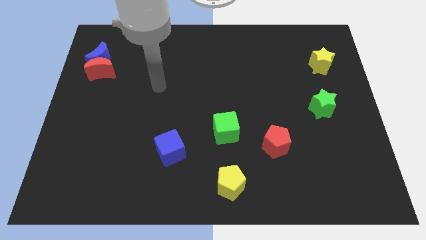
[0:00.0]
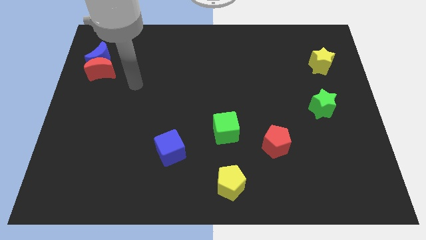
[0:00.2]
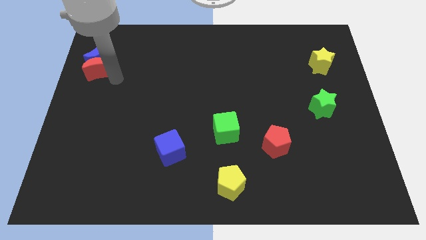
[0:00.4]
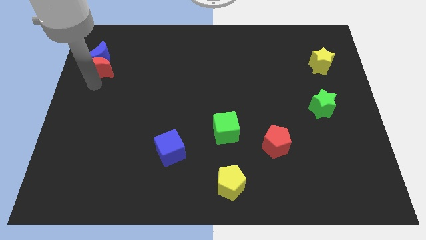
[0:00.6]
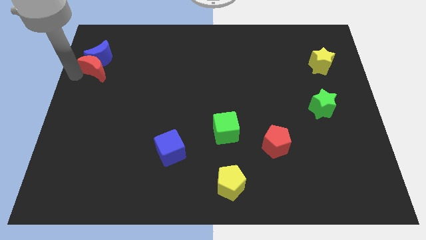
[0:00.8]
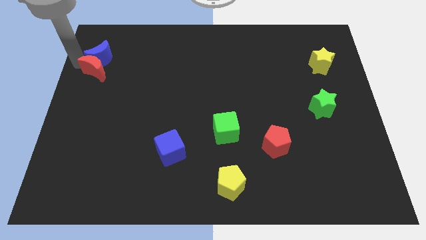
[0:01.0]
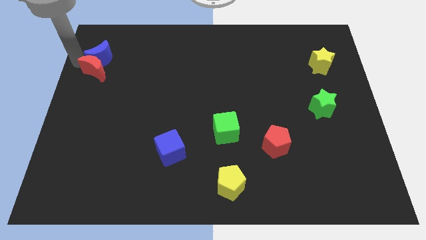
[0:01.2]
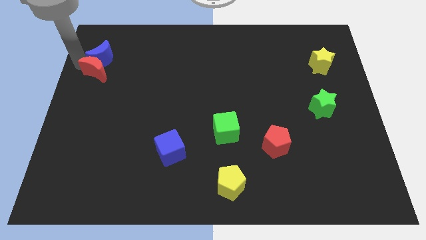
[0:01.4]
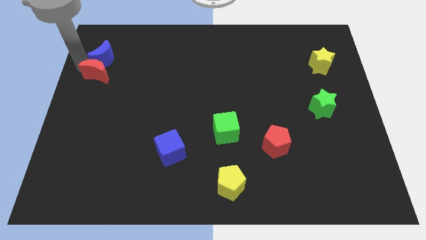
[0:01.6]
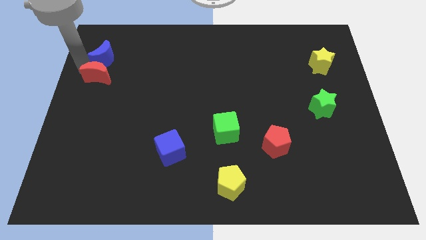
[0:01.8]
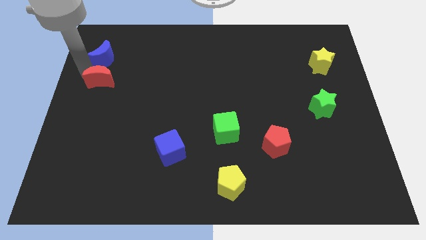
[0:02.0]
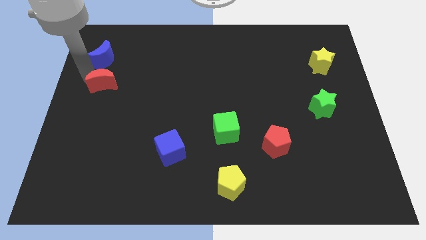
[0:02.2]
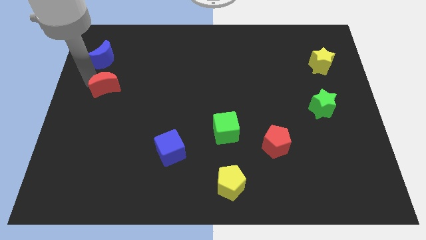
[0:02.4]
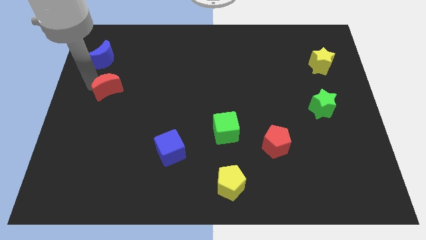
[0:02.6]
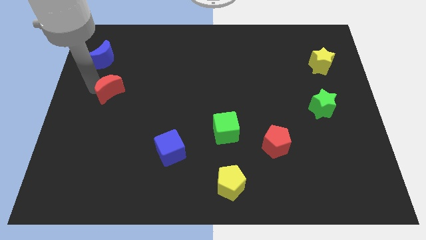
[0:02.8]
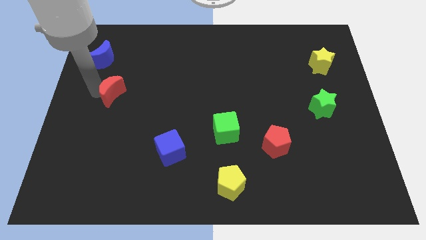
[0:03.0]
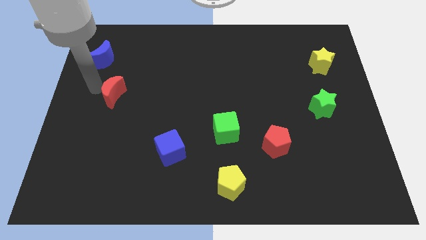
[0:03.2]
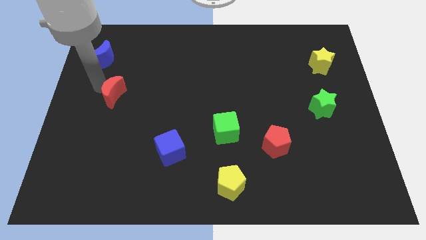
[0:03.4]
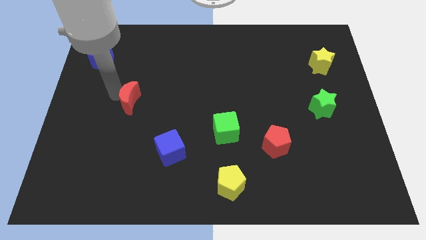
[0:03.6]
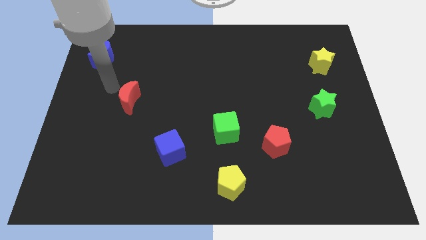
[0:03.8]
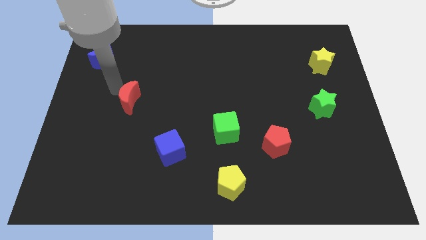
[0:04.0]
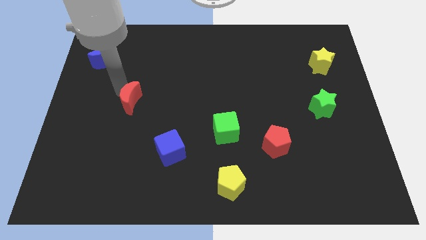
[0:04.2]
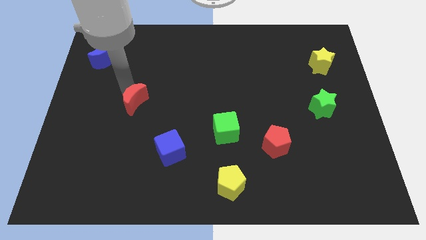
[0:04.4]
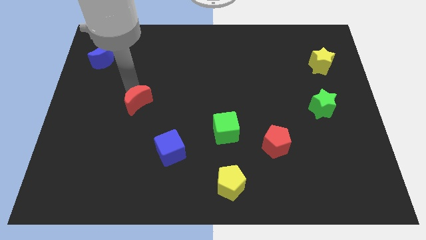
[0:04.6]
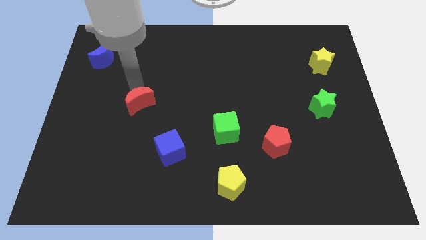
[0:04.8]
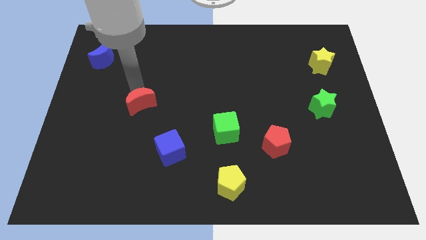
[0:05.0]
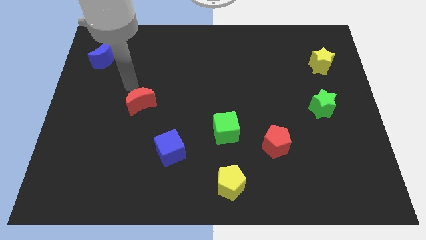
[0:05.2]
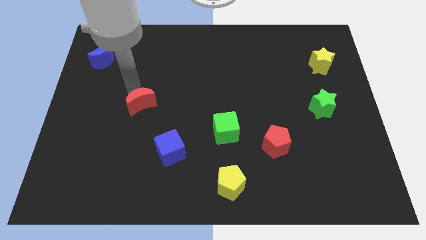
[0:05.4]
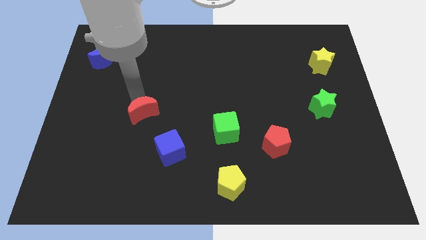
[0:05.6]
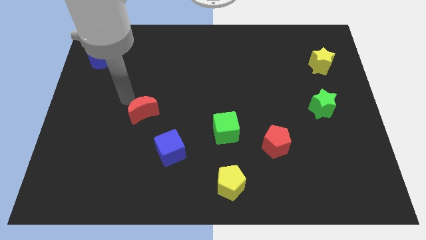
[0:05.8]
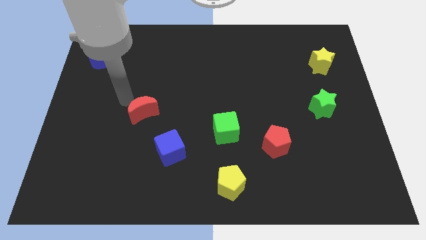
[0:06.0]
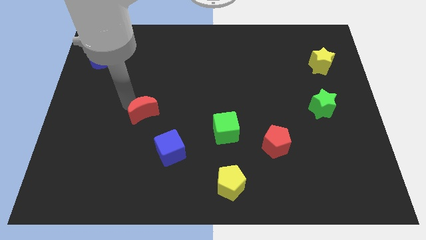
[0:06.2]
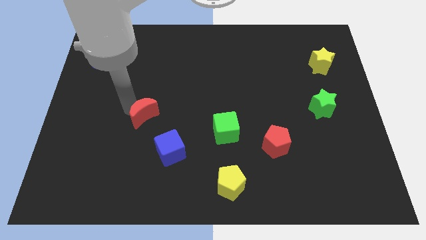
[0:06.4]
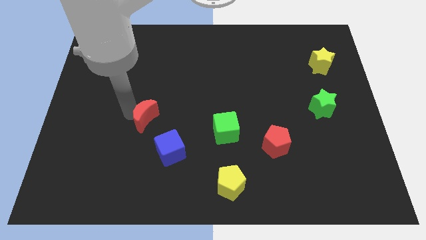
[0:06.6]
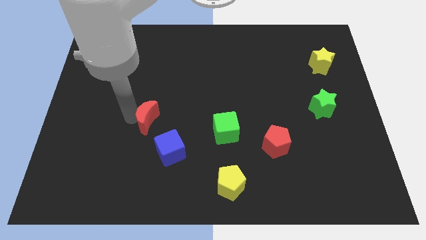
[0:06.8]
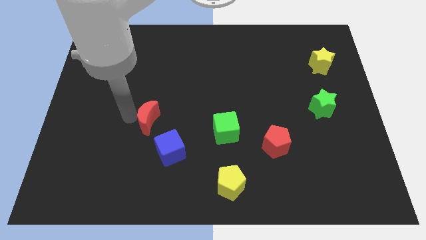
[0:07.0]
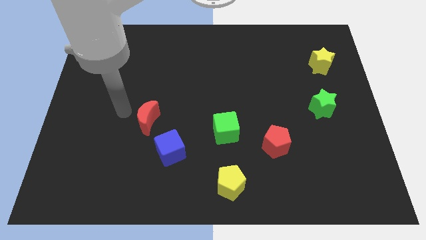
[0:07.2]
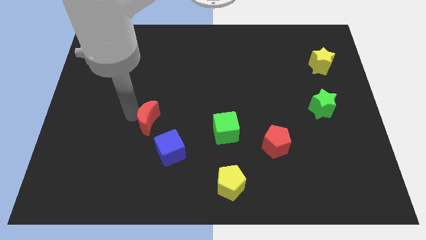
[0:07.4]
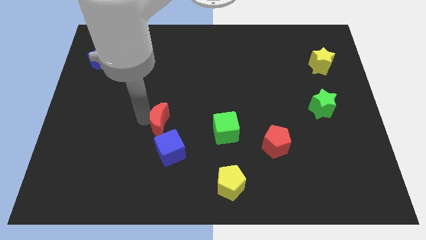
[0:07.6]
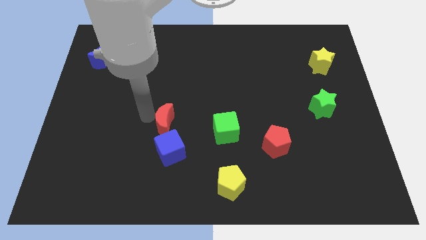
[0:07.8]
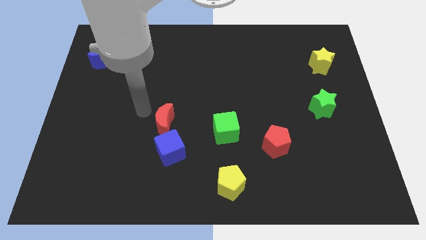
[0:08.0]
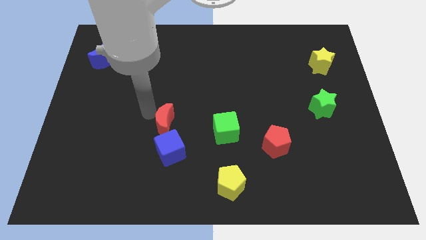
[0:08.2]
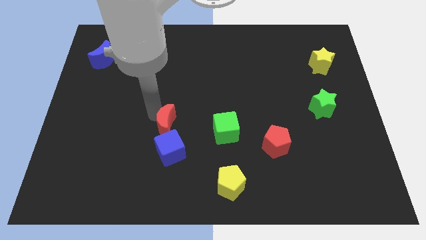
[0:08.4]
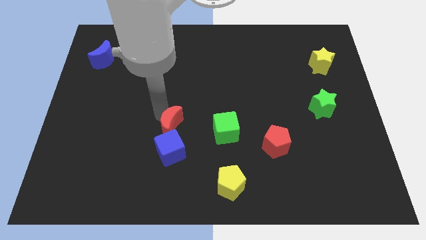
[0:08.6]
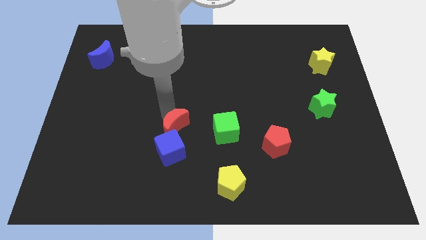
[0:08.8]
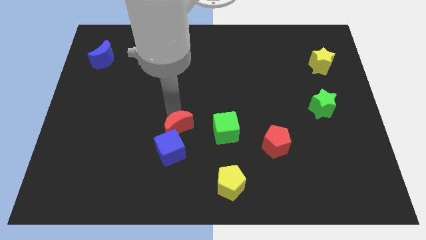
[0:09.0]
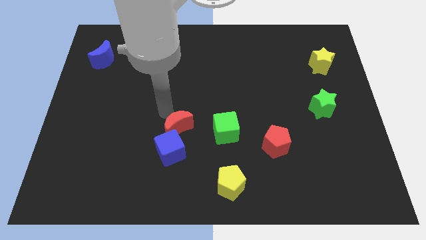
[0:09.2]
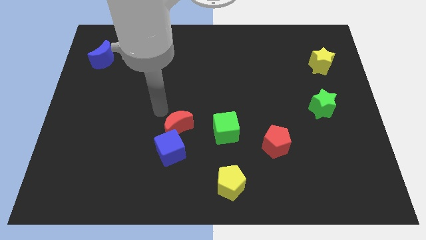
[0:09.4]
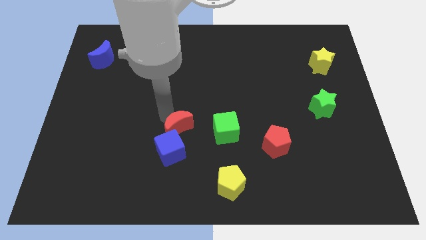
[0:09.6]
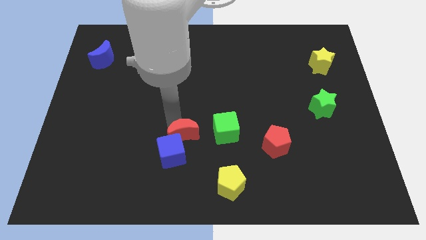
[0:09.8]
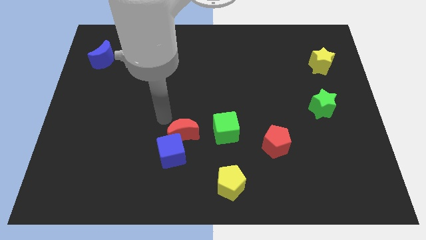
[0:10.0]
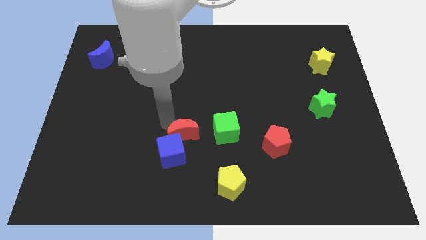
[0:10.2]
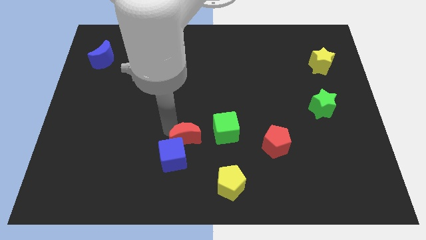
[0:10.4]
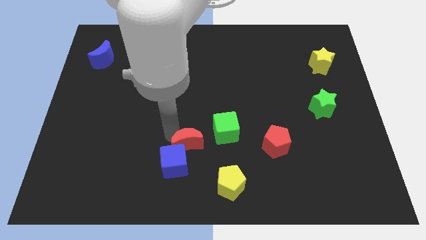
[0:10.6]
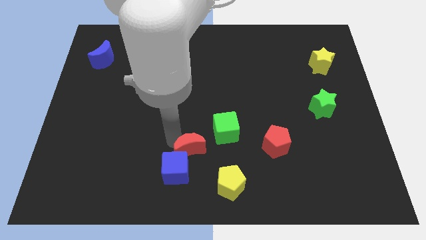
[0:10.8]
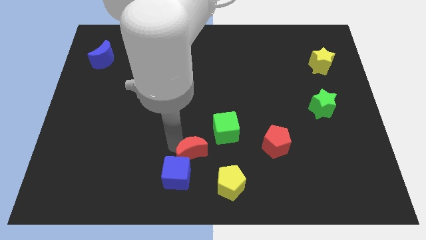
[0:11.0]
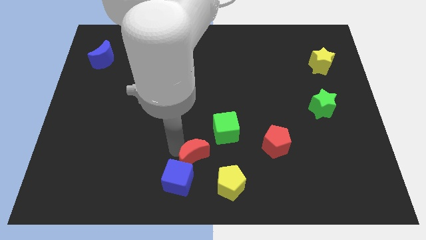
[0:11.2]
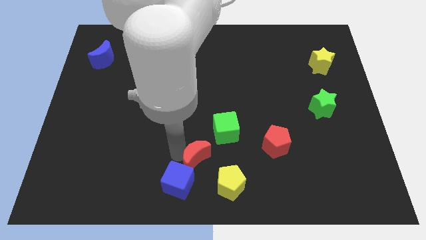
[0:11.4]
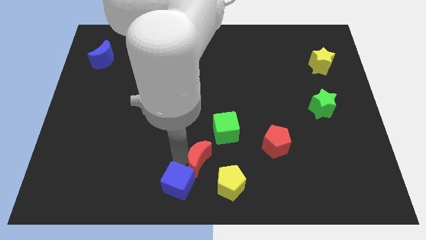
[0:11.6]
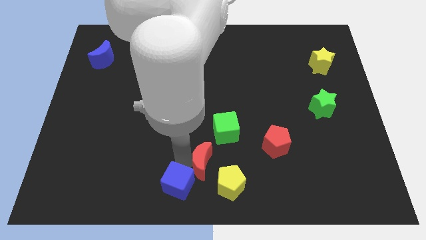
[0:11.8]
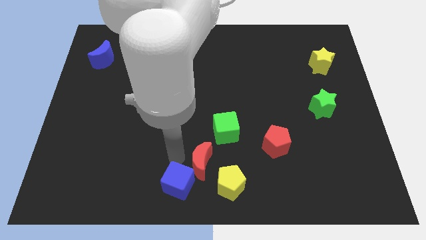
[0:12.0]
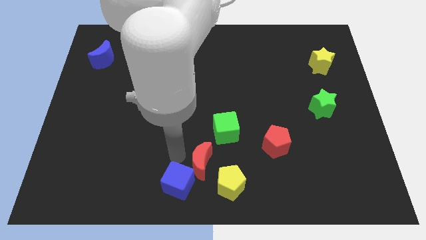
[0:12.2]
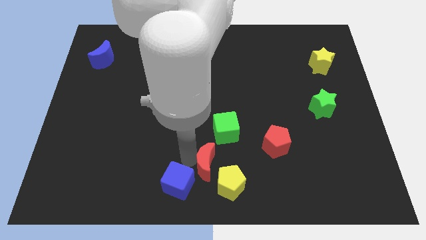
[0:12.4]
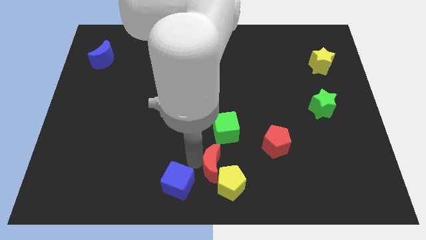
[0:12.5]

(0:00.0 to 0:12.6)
push the red moon to the yellow pentagon

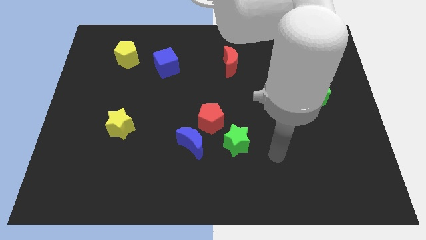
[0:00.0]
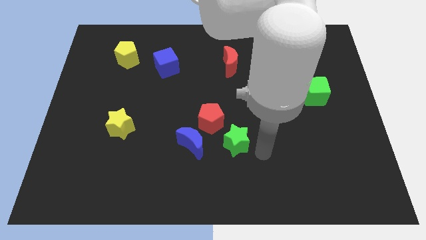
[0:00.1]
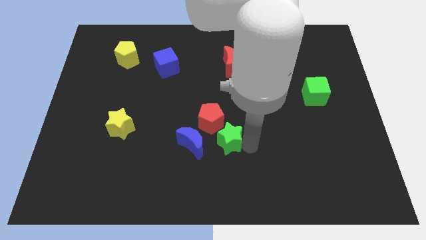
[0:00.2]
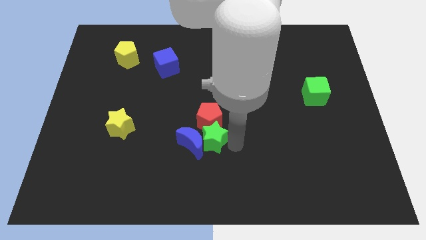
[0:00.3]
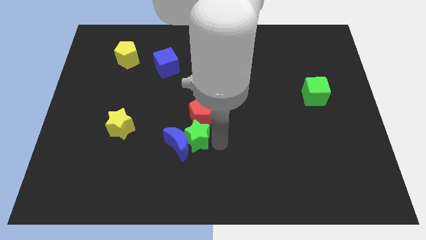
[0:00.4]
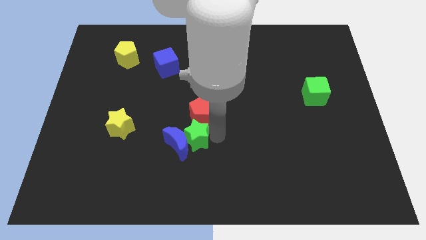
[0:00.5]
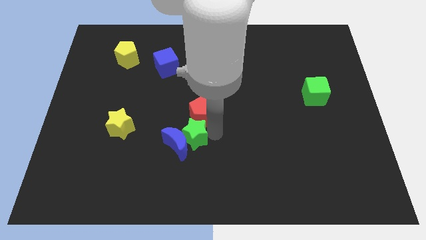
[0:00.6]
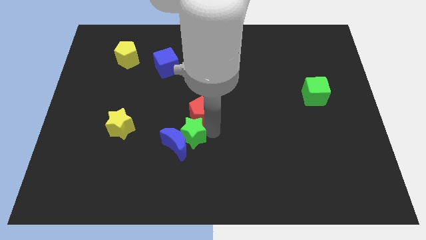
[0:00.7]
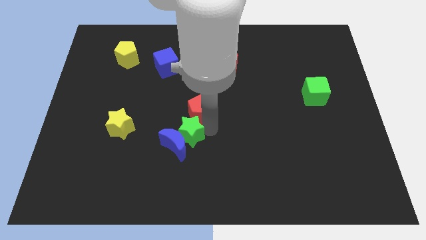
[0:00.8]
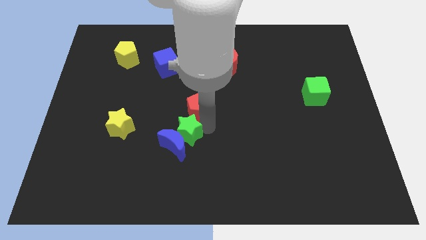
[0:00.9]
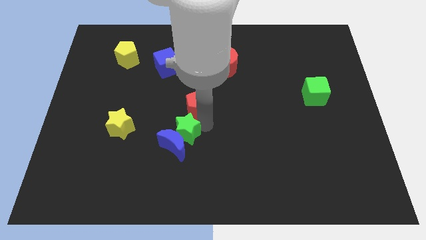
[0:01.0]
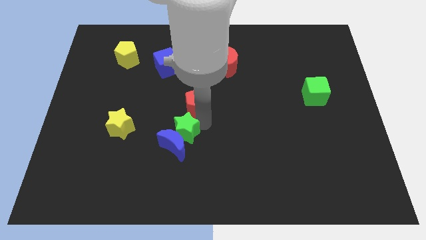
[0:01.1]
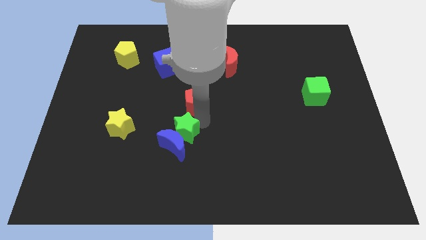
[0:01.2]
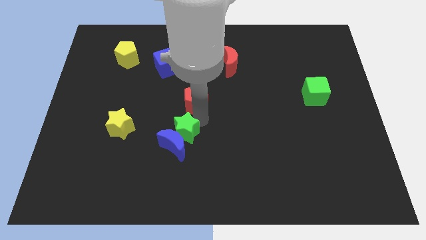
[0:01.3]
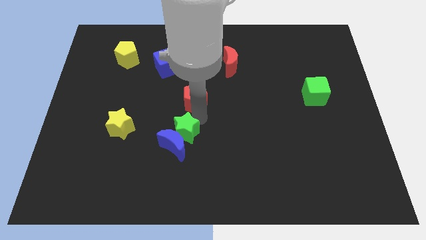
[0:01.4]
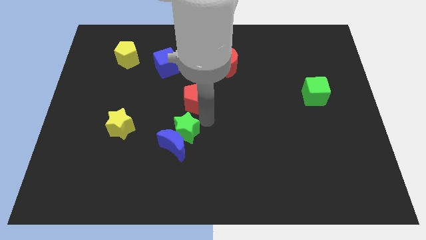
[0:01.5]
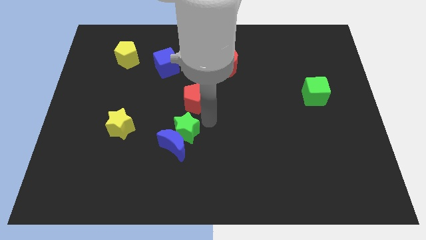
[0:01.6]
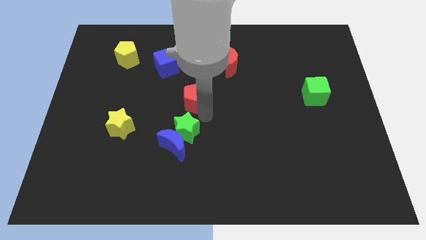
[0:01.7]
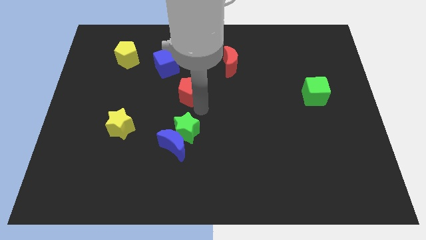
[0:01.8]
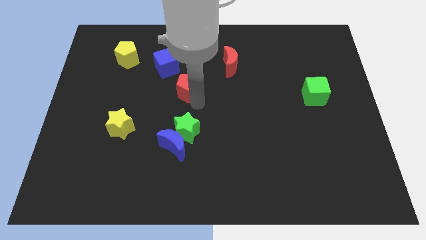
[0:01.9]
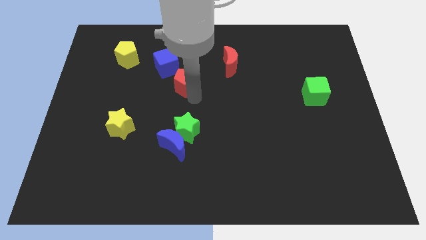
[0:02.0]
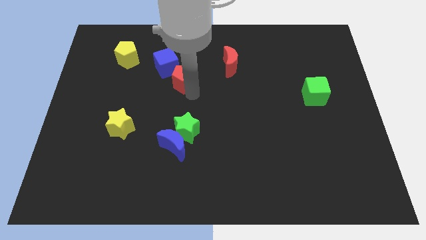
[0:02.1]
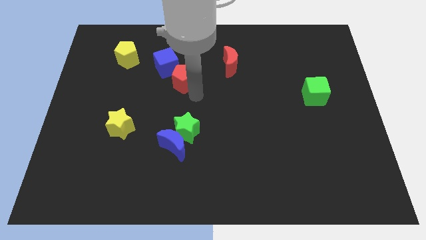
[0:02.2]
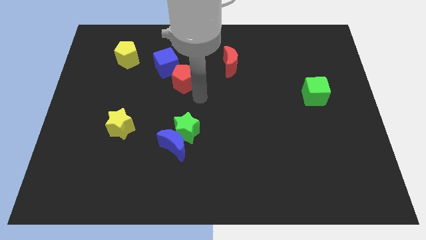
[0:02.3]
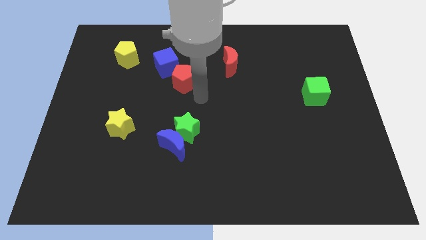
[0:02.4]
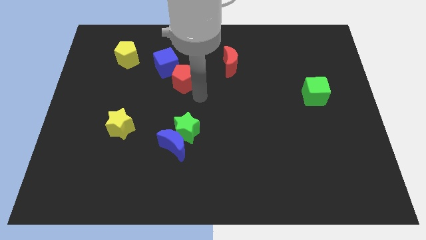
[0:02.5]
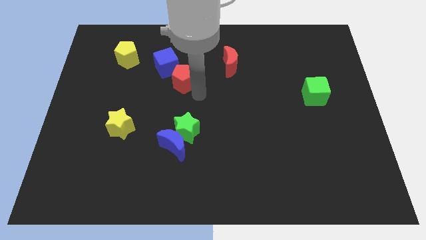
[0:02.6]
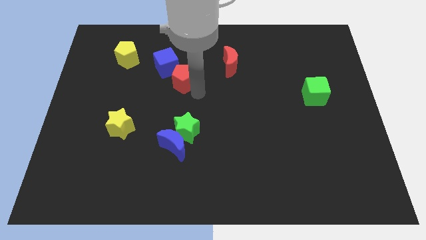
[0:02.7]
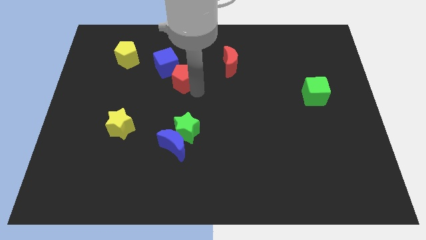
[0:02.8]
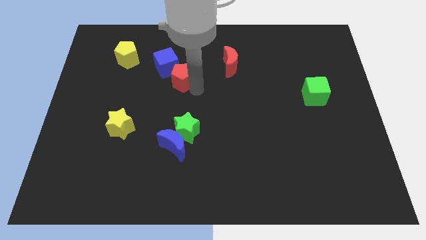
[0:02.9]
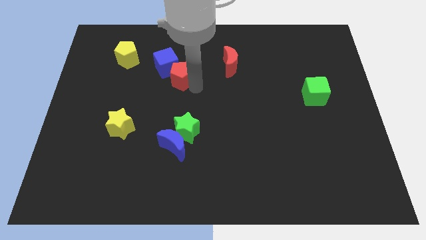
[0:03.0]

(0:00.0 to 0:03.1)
slide the red pentagon to the blue cube
